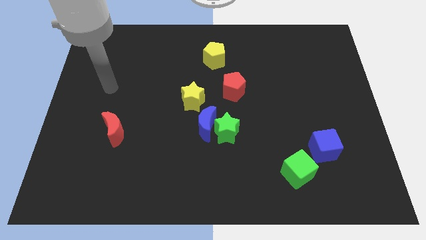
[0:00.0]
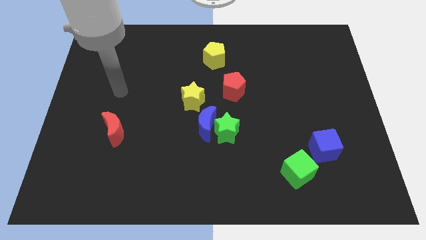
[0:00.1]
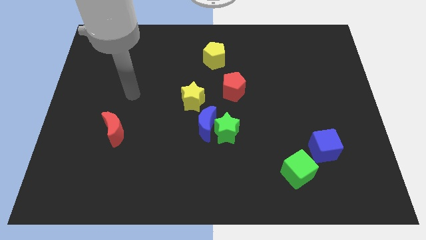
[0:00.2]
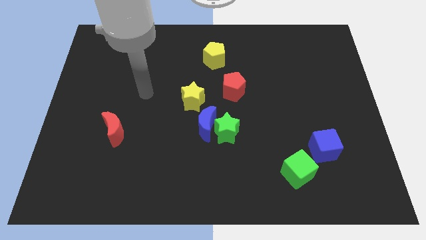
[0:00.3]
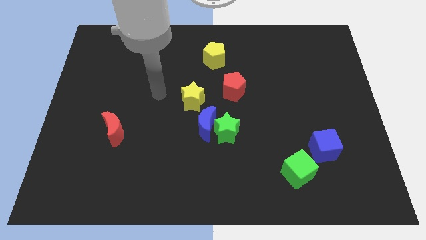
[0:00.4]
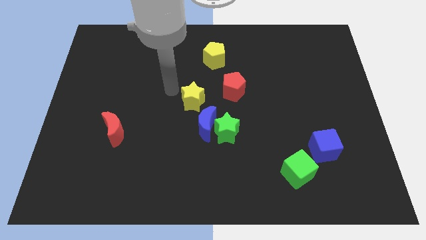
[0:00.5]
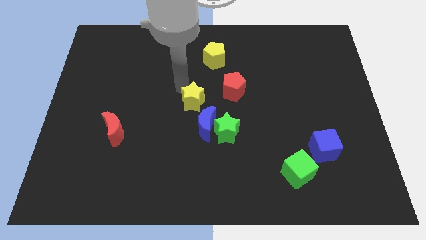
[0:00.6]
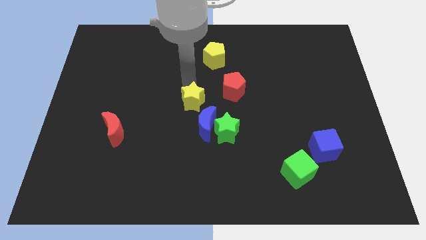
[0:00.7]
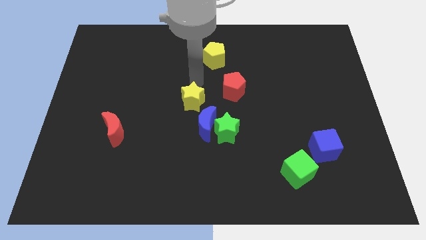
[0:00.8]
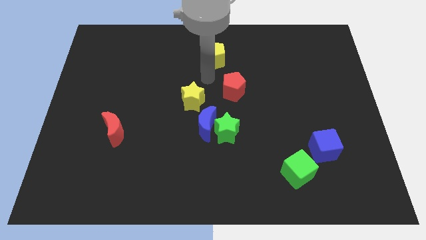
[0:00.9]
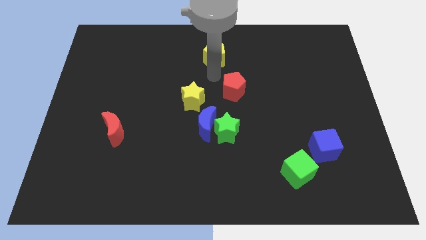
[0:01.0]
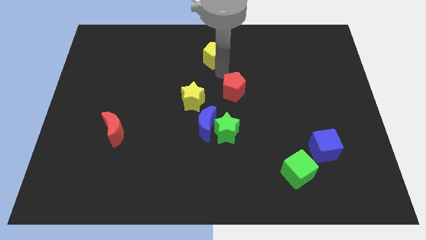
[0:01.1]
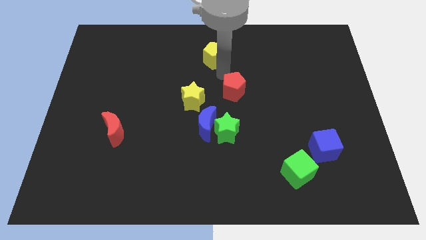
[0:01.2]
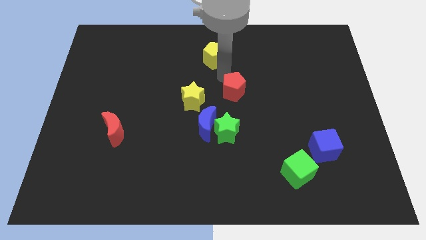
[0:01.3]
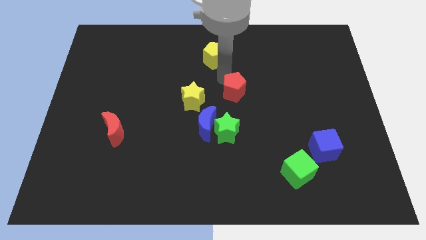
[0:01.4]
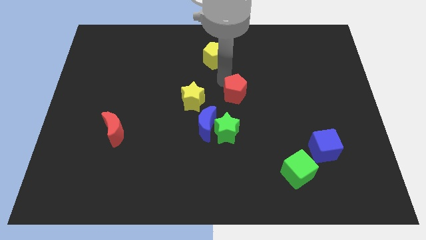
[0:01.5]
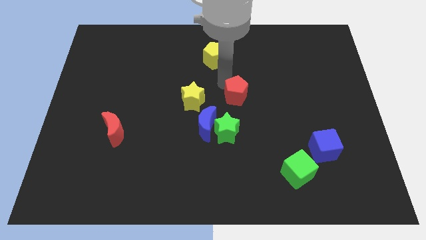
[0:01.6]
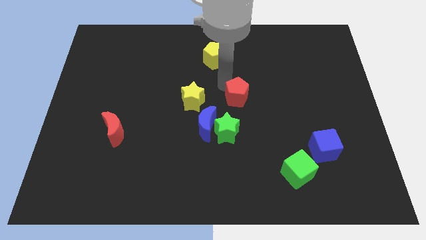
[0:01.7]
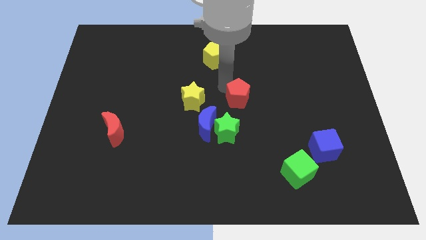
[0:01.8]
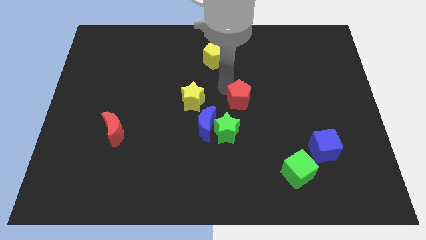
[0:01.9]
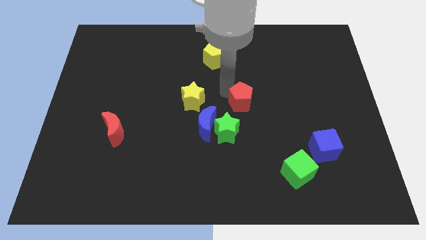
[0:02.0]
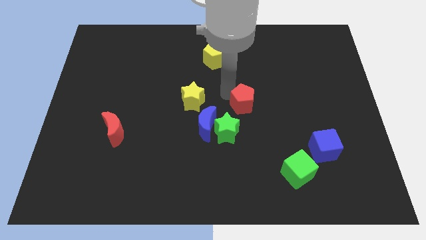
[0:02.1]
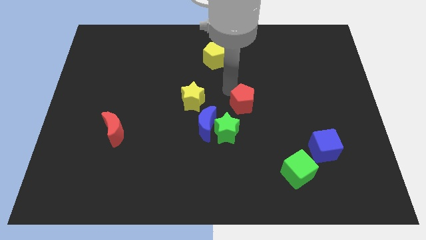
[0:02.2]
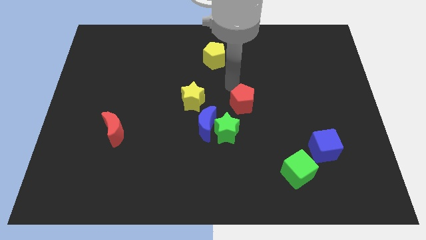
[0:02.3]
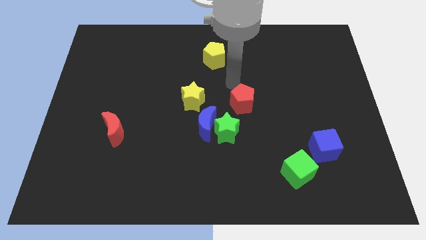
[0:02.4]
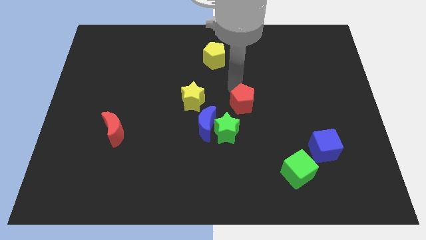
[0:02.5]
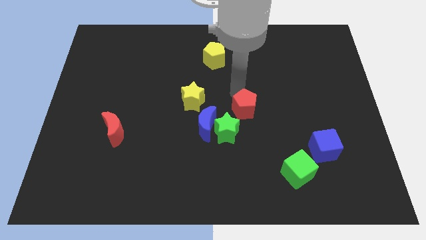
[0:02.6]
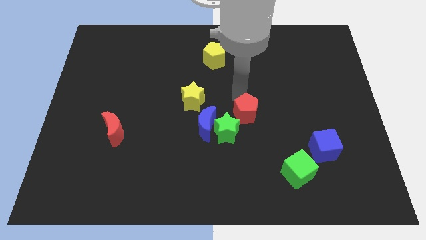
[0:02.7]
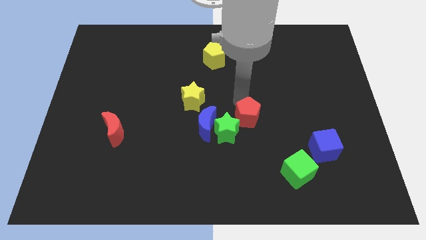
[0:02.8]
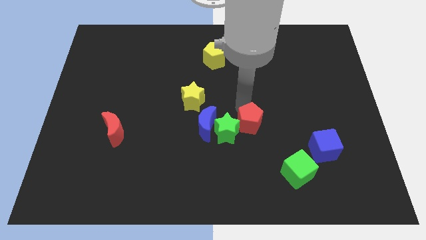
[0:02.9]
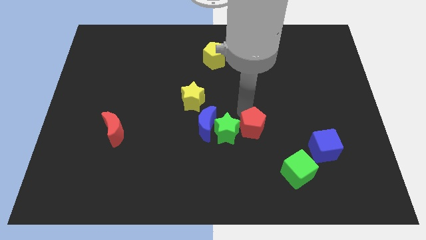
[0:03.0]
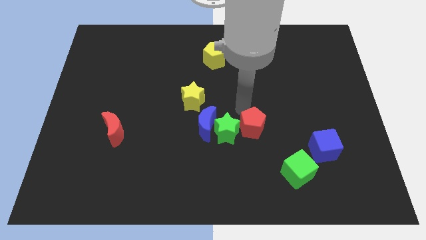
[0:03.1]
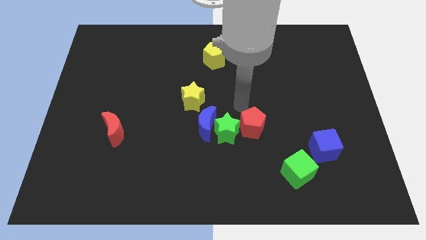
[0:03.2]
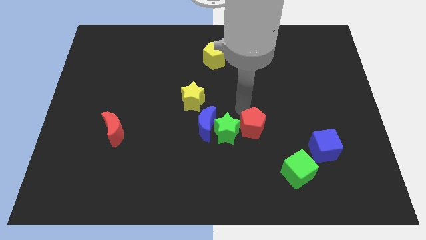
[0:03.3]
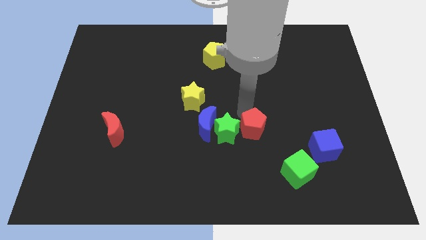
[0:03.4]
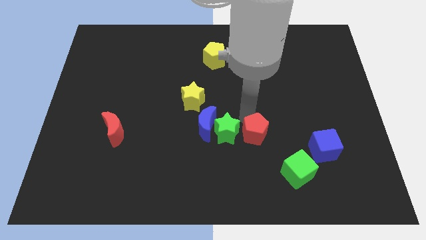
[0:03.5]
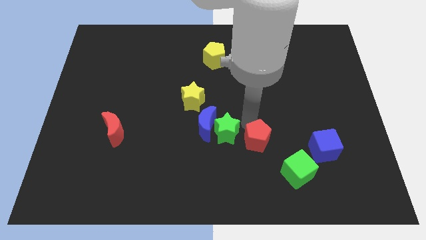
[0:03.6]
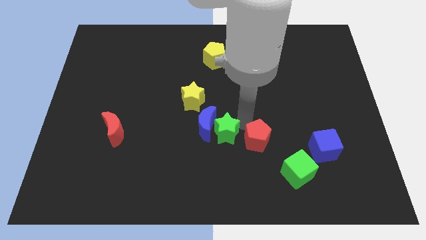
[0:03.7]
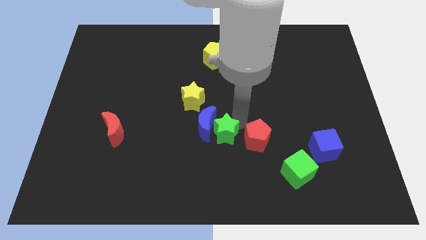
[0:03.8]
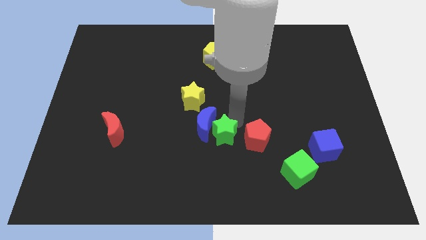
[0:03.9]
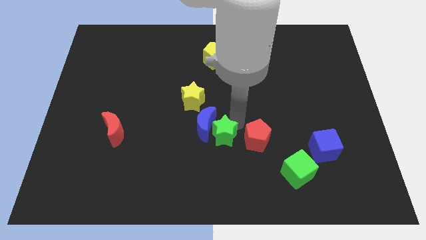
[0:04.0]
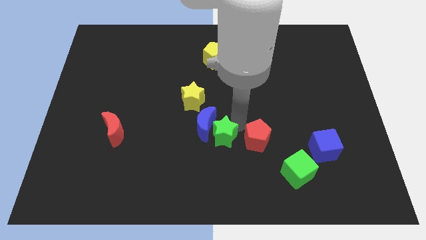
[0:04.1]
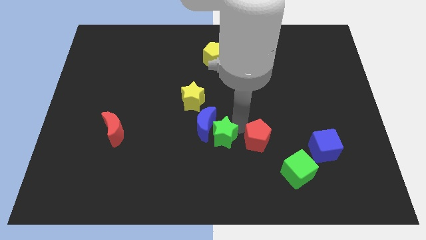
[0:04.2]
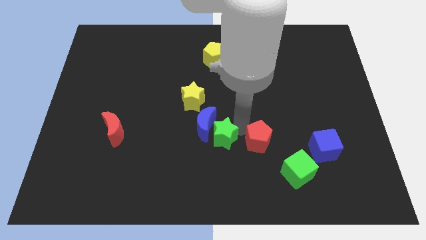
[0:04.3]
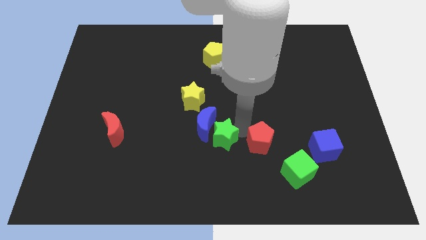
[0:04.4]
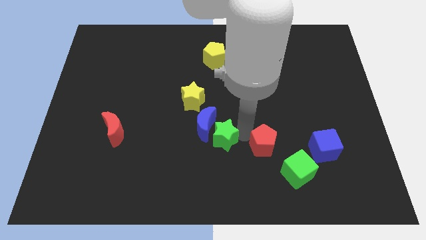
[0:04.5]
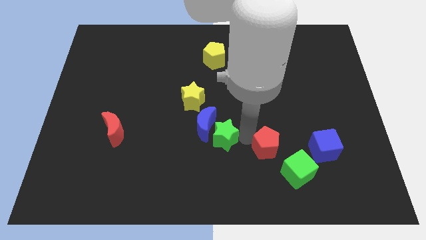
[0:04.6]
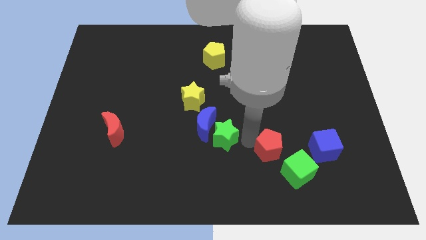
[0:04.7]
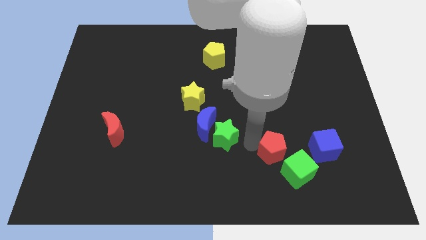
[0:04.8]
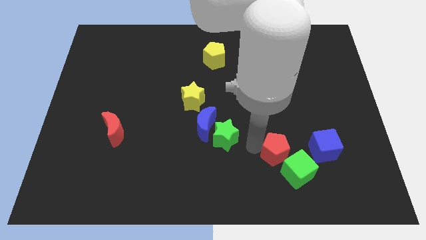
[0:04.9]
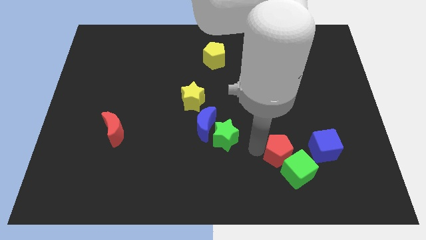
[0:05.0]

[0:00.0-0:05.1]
move the red pentagon next to the green cube

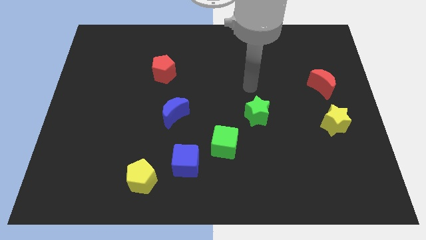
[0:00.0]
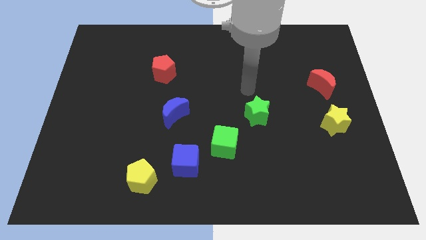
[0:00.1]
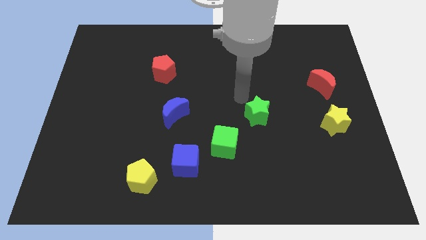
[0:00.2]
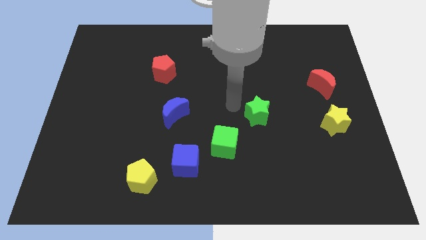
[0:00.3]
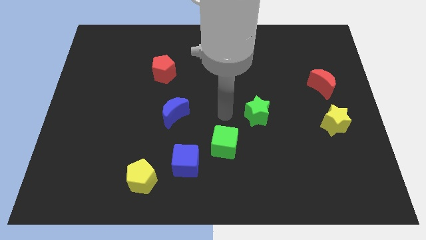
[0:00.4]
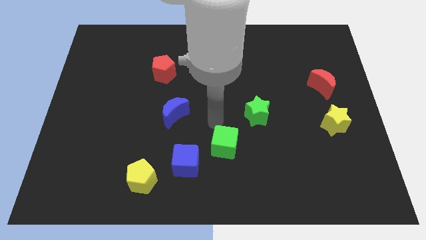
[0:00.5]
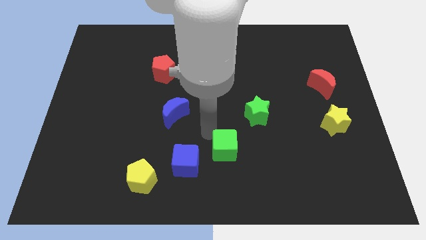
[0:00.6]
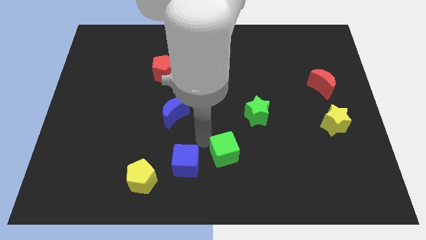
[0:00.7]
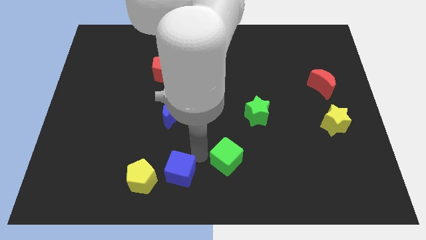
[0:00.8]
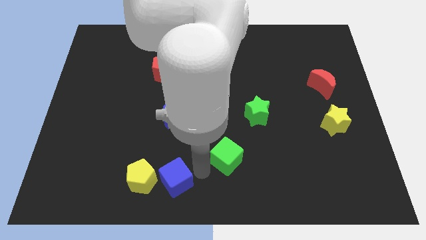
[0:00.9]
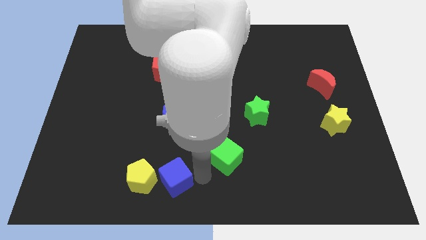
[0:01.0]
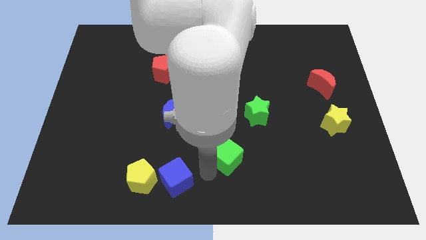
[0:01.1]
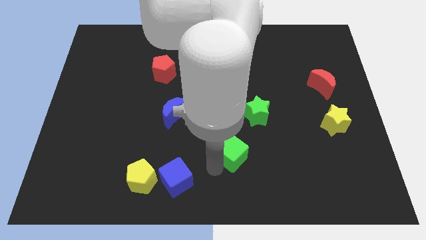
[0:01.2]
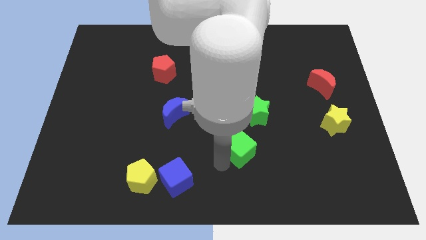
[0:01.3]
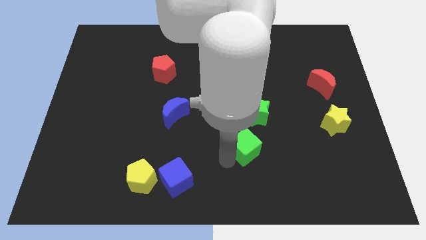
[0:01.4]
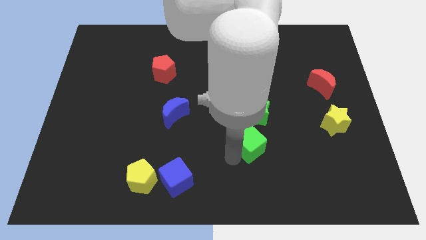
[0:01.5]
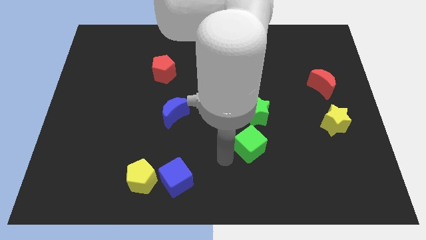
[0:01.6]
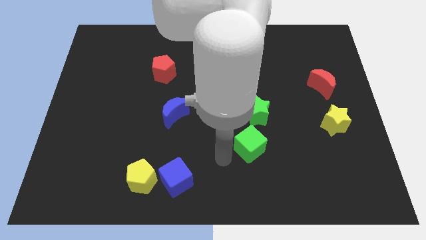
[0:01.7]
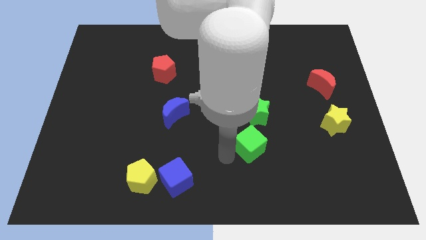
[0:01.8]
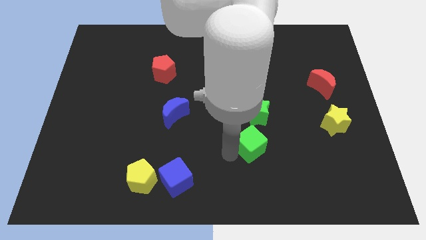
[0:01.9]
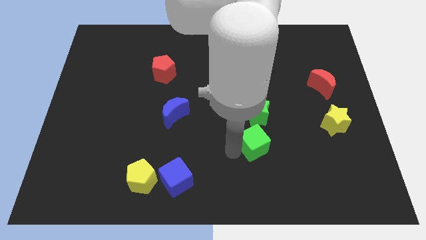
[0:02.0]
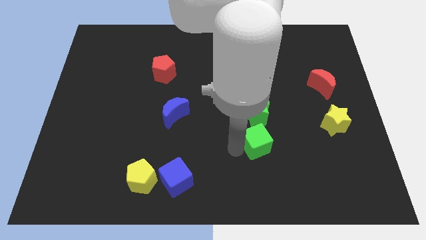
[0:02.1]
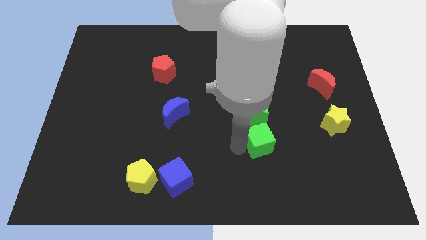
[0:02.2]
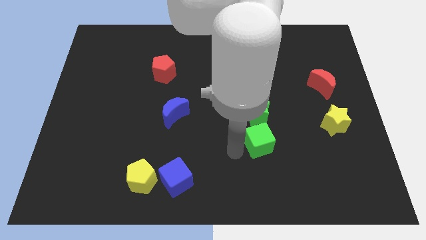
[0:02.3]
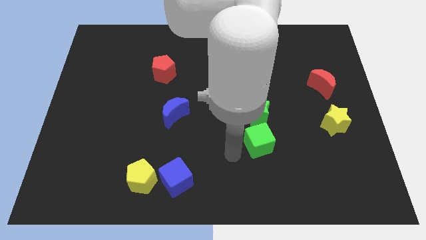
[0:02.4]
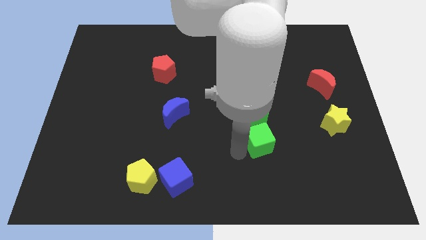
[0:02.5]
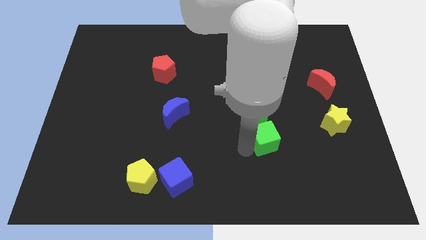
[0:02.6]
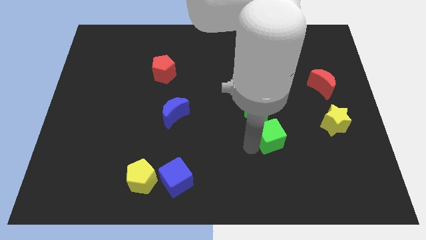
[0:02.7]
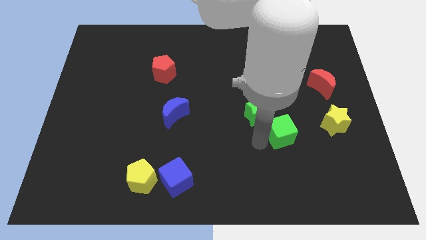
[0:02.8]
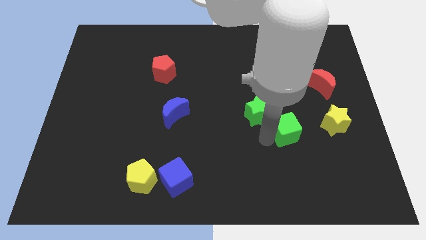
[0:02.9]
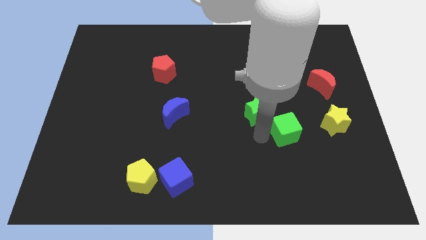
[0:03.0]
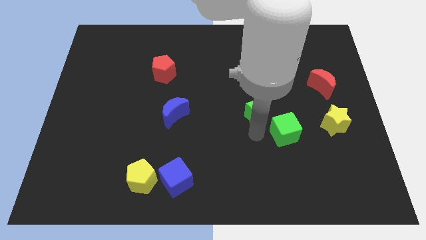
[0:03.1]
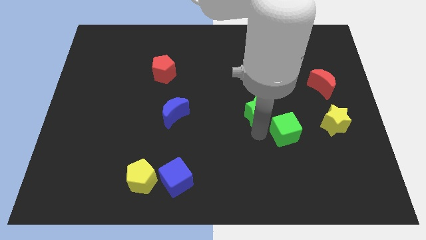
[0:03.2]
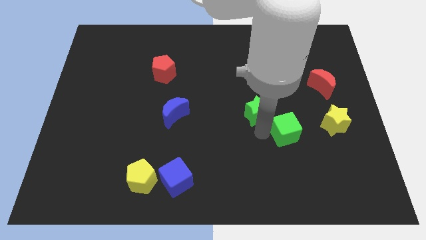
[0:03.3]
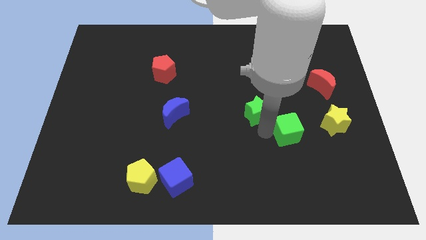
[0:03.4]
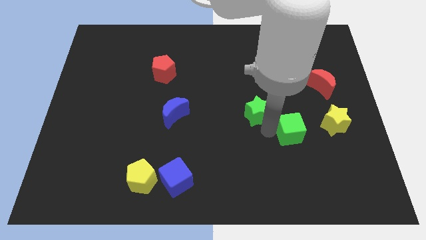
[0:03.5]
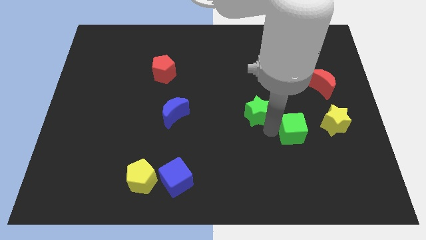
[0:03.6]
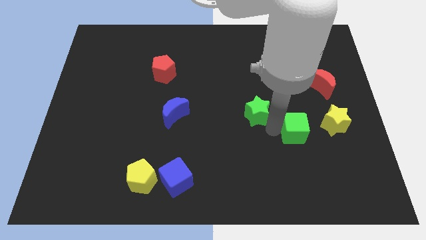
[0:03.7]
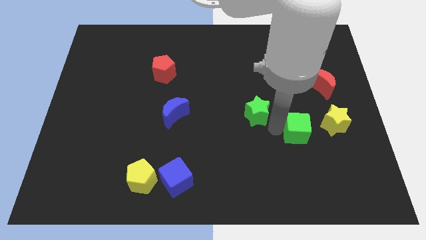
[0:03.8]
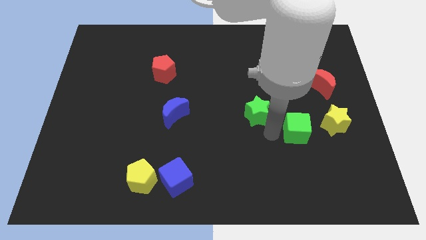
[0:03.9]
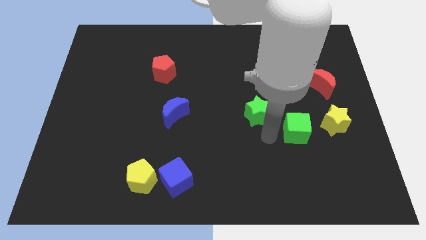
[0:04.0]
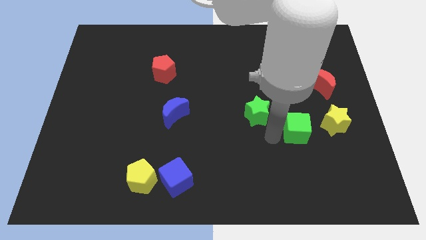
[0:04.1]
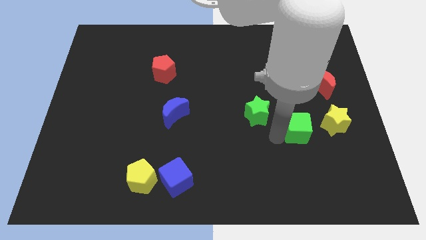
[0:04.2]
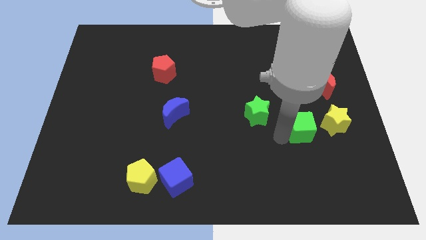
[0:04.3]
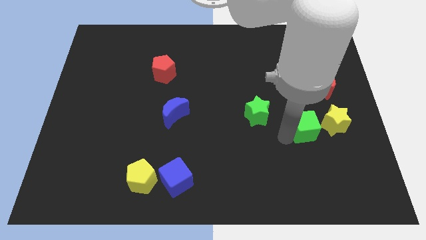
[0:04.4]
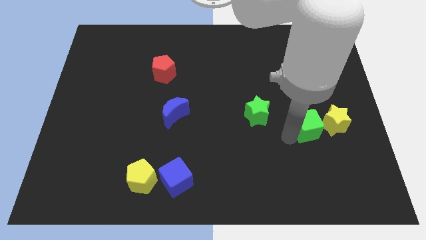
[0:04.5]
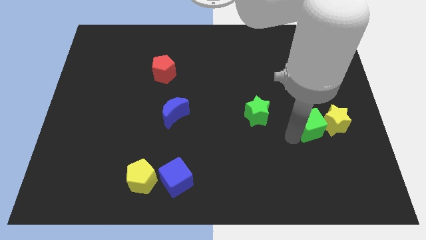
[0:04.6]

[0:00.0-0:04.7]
push the green cube close to the yellow star
